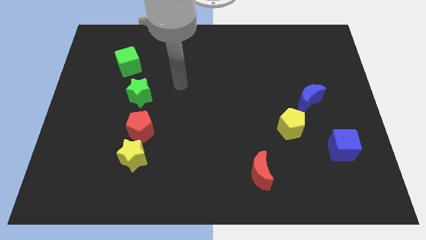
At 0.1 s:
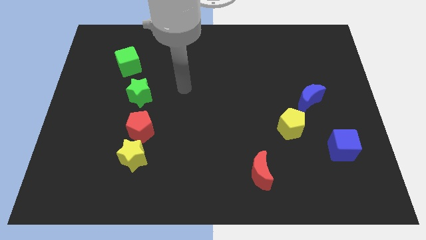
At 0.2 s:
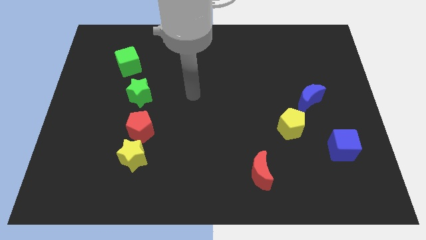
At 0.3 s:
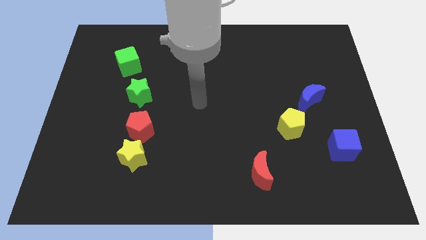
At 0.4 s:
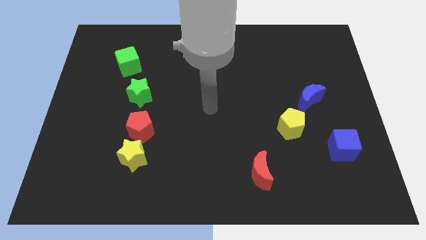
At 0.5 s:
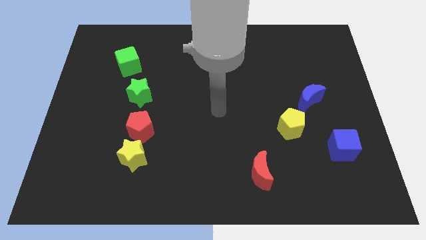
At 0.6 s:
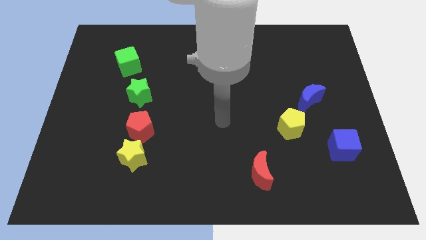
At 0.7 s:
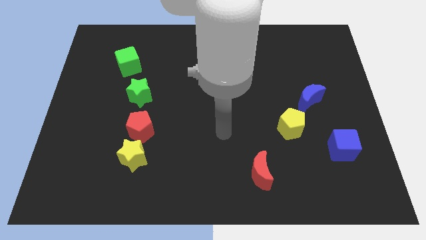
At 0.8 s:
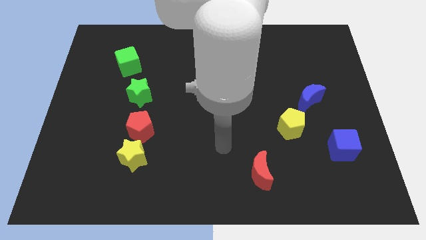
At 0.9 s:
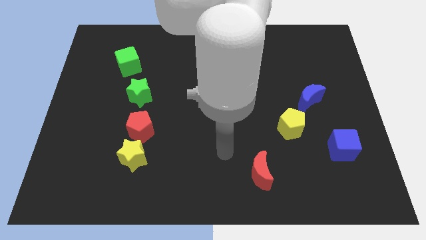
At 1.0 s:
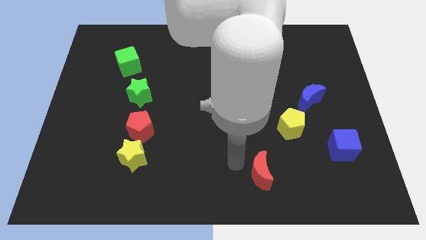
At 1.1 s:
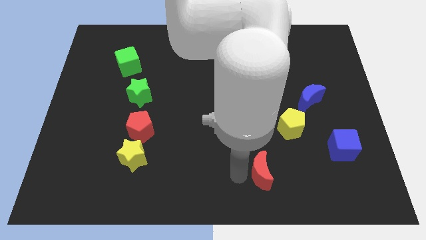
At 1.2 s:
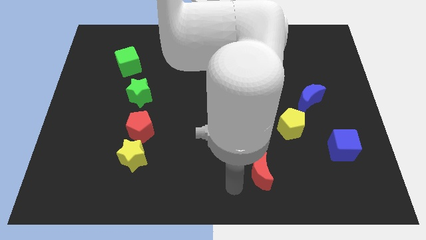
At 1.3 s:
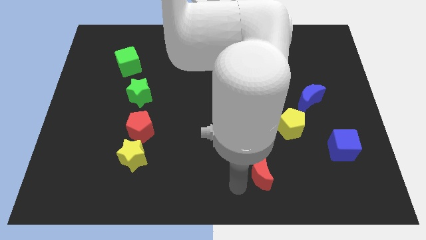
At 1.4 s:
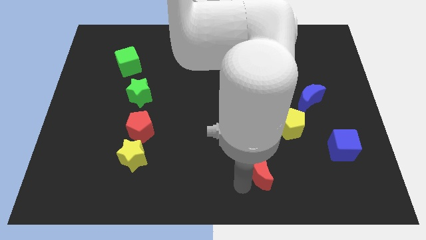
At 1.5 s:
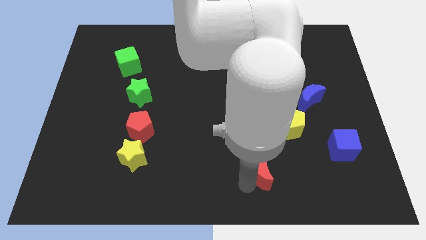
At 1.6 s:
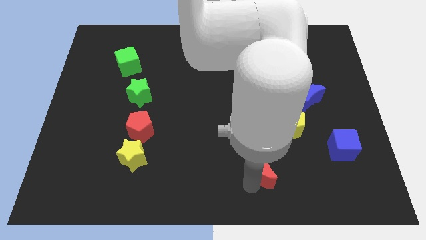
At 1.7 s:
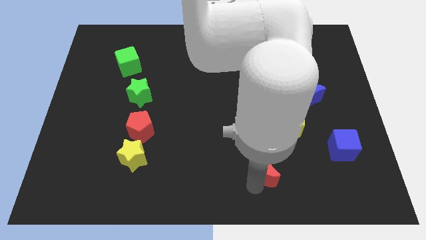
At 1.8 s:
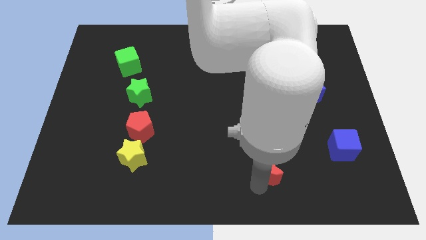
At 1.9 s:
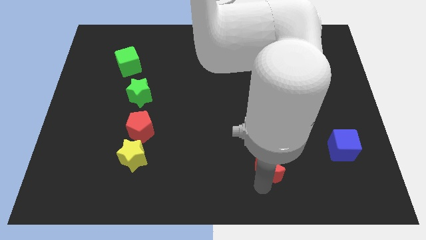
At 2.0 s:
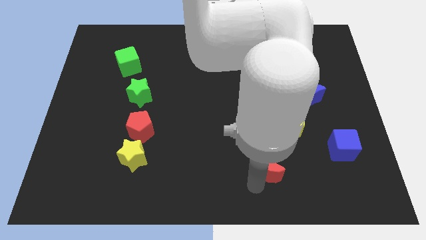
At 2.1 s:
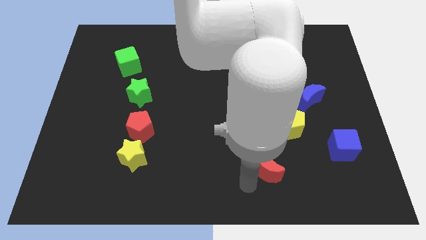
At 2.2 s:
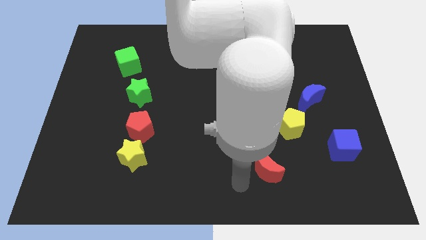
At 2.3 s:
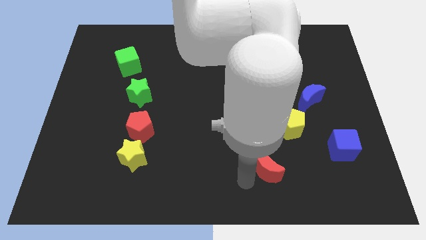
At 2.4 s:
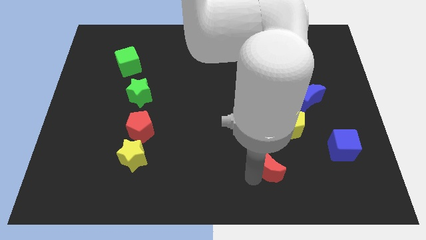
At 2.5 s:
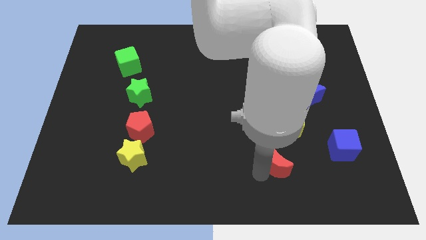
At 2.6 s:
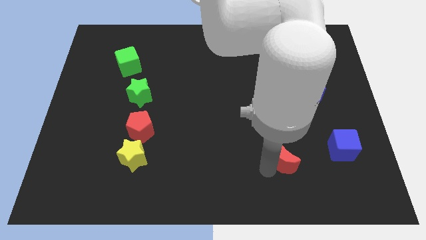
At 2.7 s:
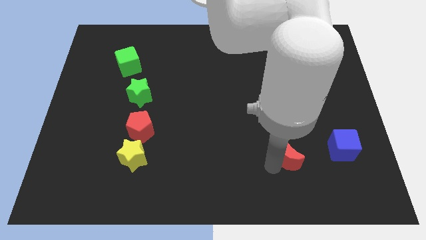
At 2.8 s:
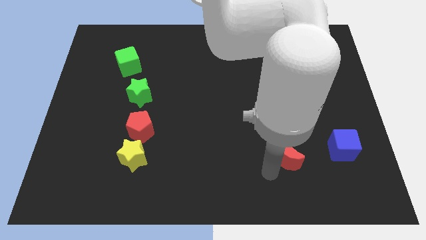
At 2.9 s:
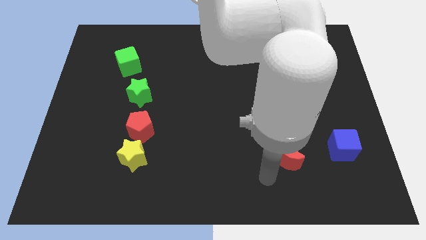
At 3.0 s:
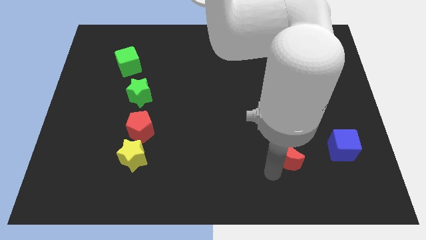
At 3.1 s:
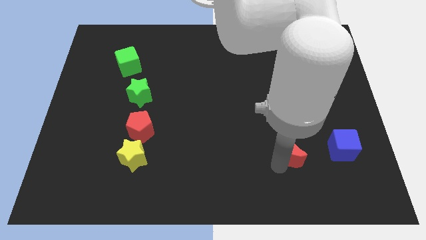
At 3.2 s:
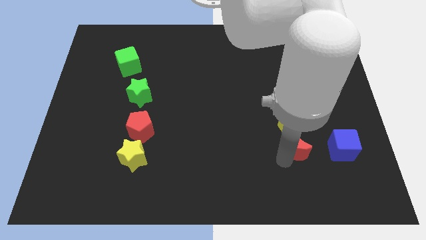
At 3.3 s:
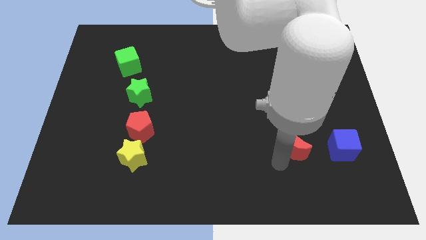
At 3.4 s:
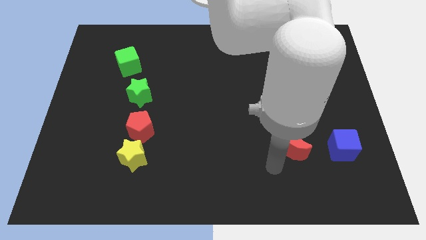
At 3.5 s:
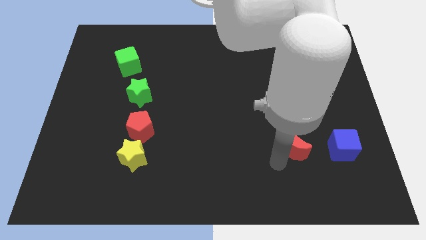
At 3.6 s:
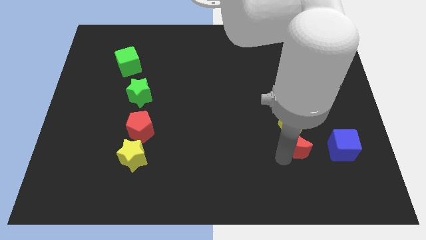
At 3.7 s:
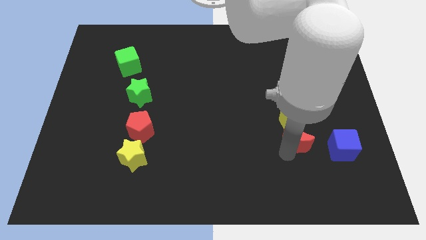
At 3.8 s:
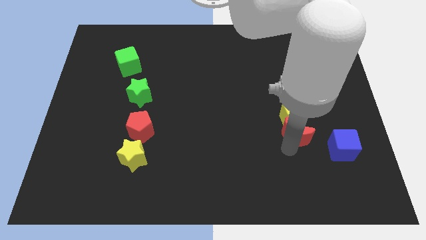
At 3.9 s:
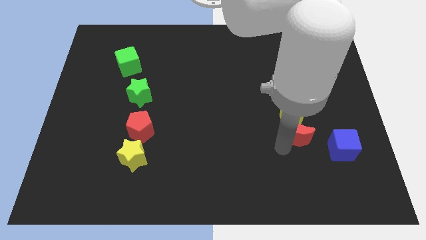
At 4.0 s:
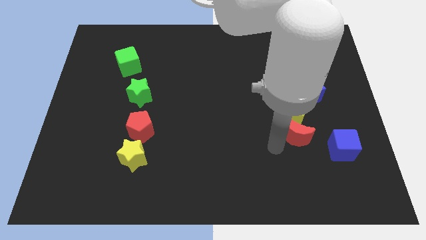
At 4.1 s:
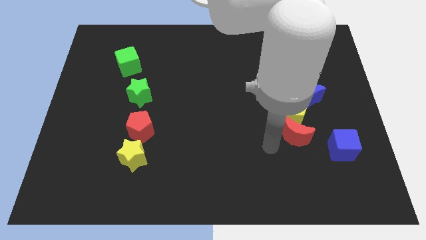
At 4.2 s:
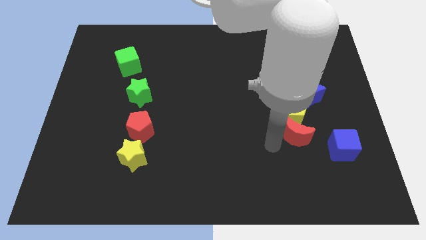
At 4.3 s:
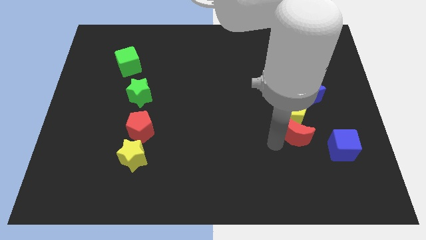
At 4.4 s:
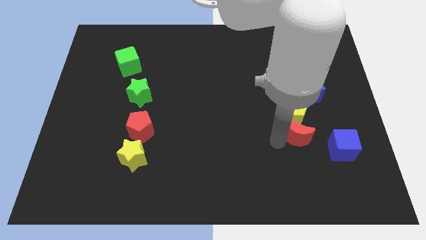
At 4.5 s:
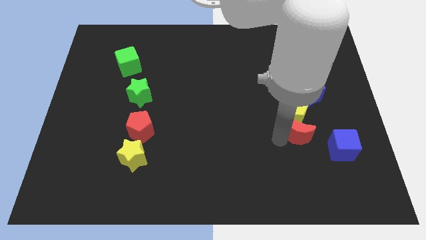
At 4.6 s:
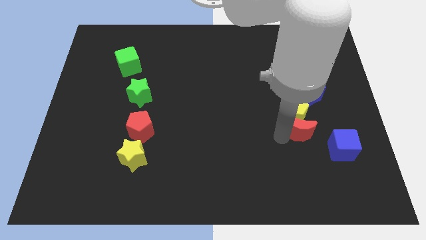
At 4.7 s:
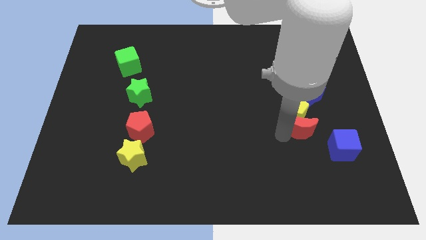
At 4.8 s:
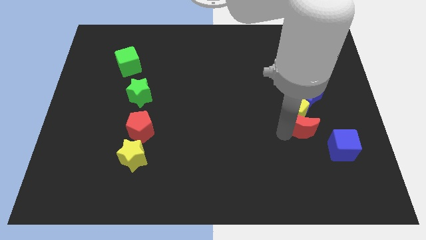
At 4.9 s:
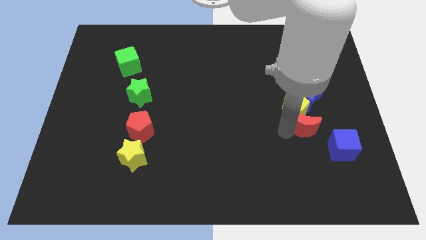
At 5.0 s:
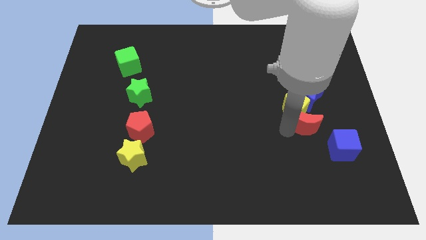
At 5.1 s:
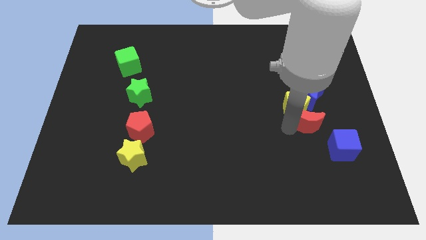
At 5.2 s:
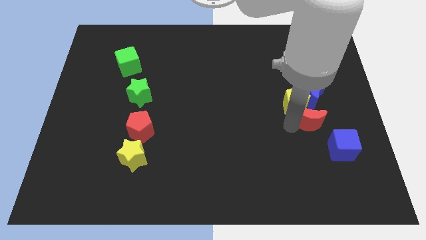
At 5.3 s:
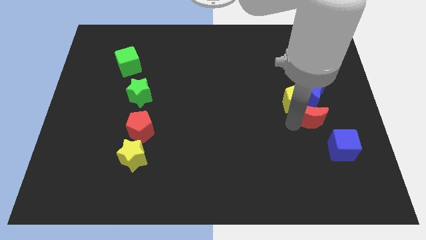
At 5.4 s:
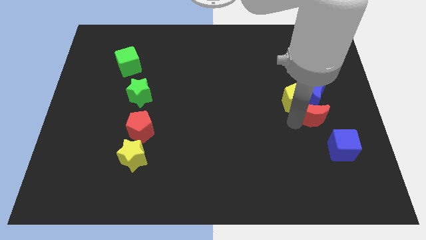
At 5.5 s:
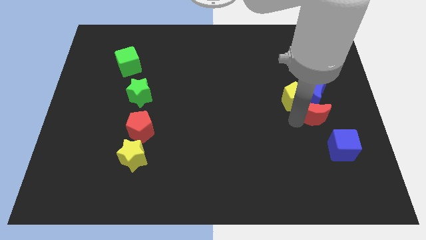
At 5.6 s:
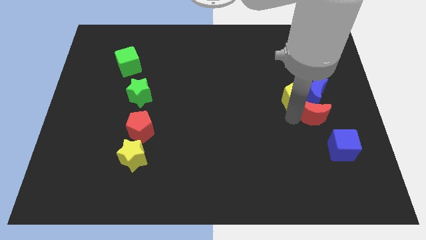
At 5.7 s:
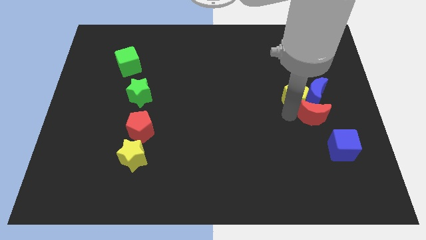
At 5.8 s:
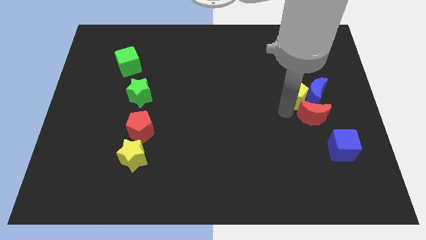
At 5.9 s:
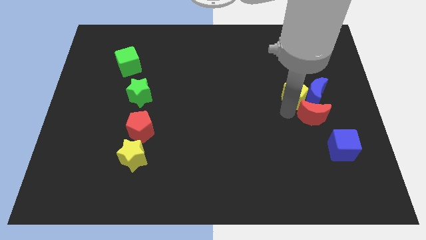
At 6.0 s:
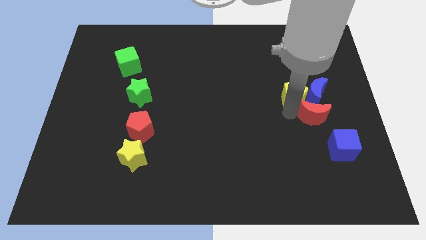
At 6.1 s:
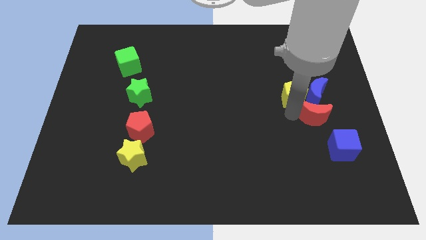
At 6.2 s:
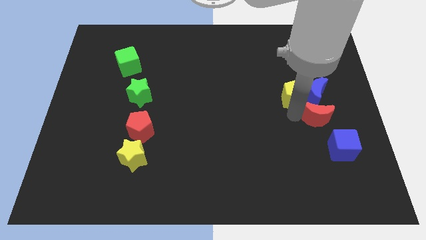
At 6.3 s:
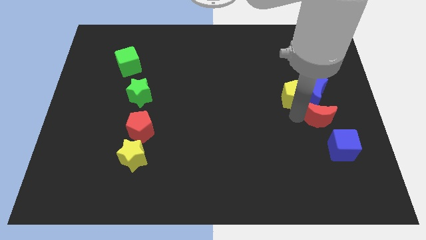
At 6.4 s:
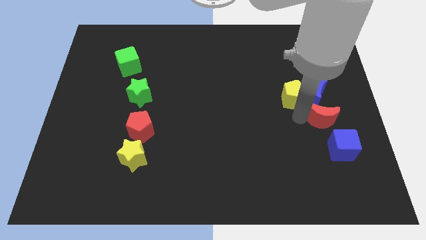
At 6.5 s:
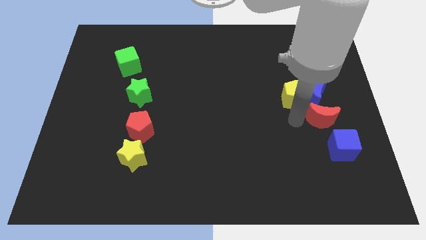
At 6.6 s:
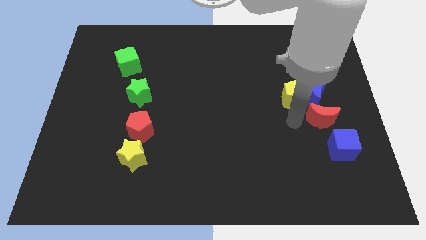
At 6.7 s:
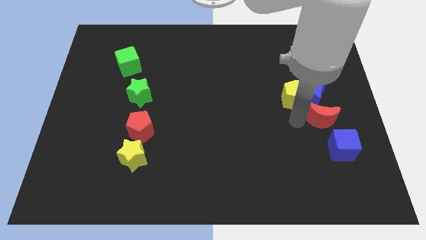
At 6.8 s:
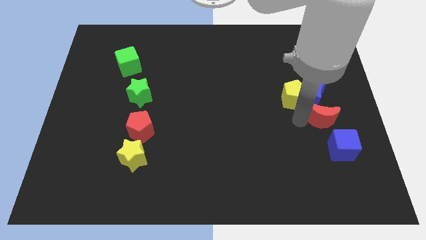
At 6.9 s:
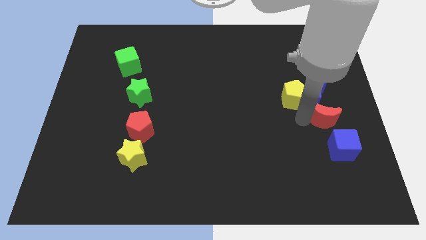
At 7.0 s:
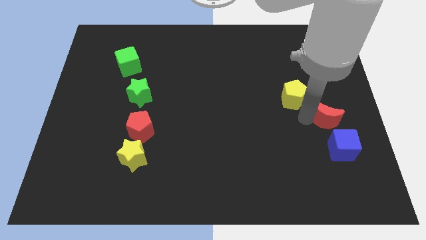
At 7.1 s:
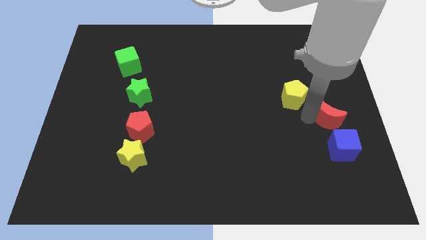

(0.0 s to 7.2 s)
slide the red moon to the center right
